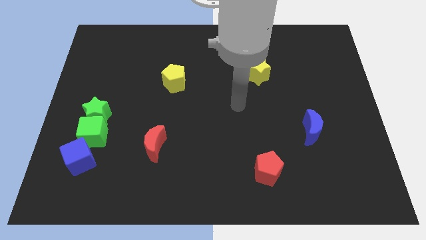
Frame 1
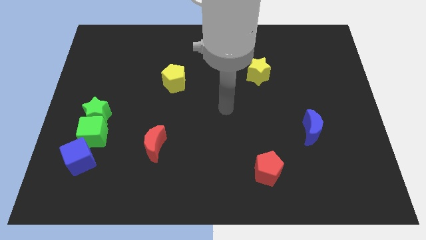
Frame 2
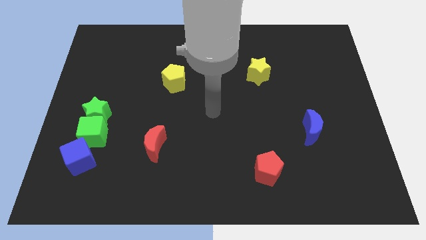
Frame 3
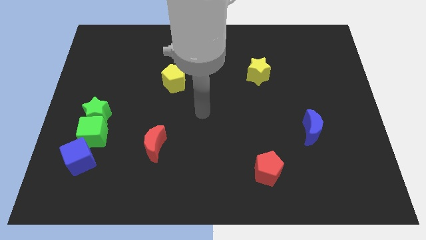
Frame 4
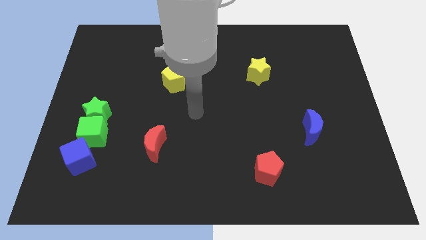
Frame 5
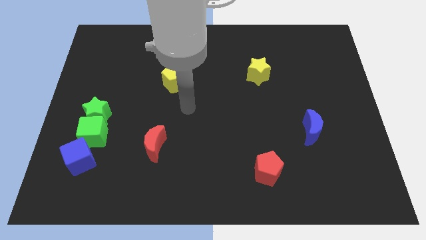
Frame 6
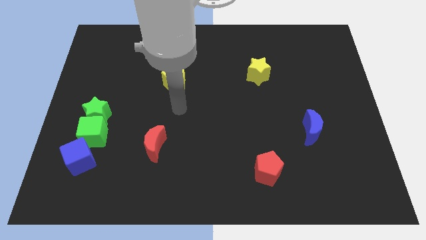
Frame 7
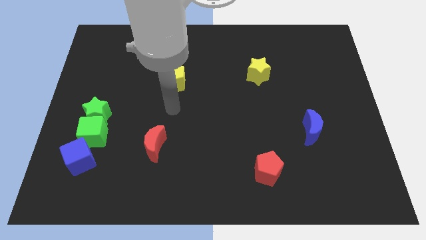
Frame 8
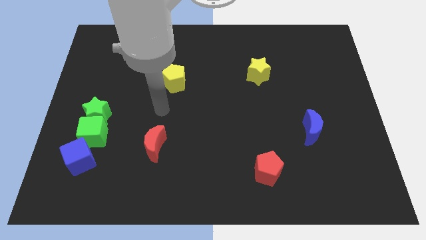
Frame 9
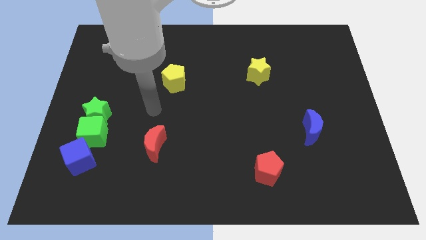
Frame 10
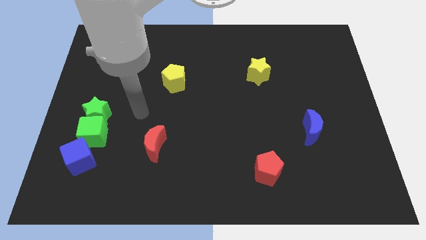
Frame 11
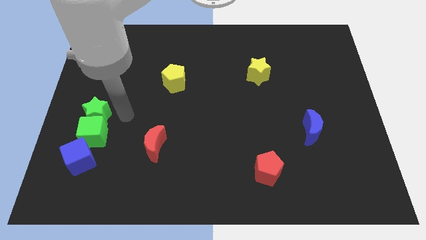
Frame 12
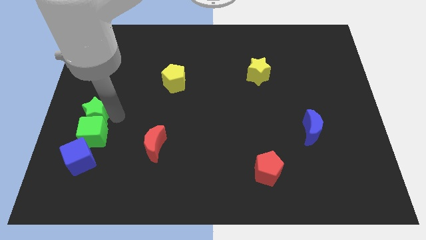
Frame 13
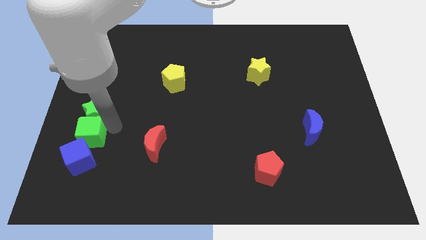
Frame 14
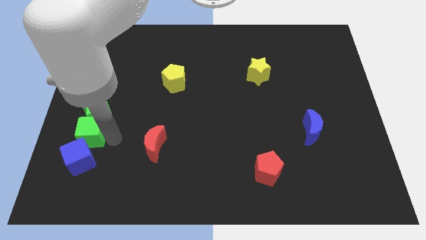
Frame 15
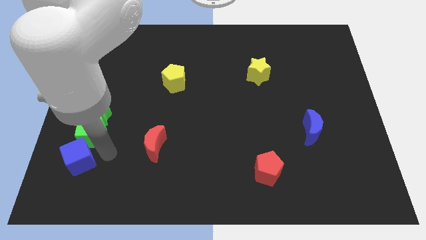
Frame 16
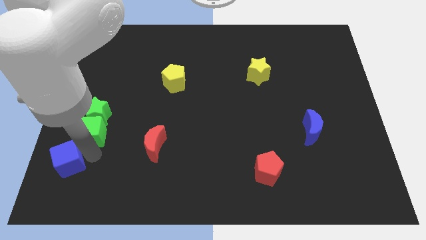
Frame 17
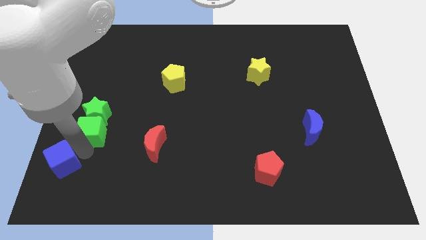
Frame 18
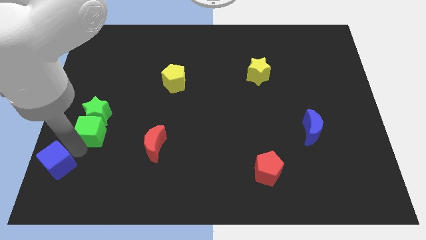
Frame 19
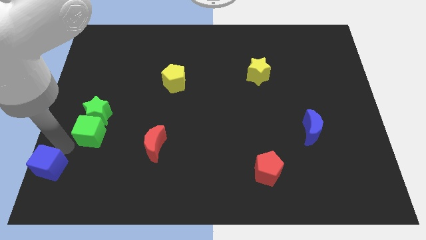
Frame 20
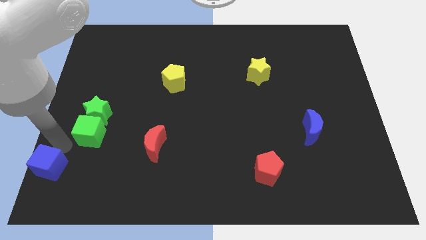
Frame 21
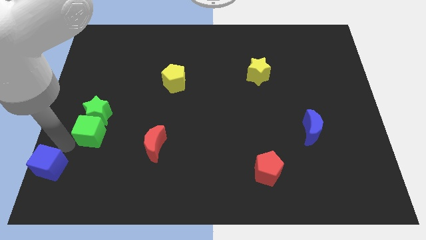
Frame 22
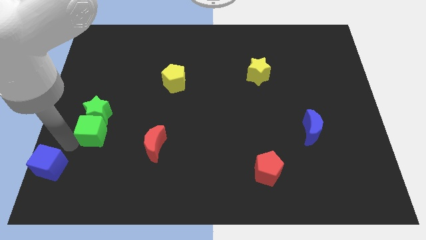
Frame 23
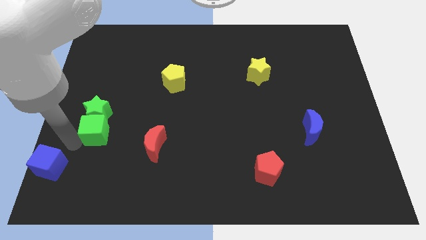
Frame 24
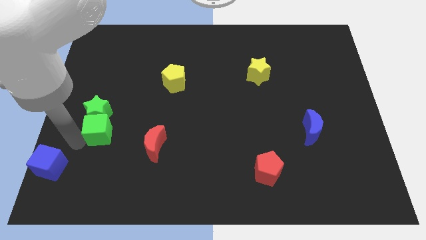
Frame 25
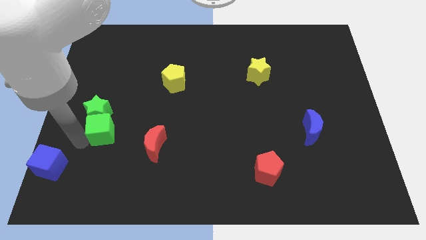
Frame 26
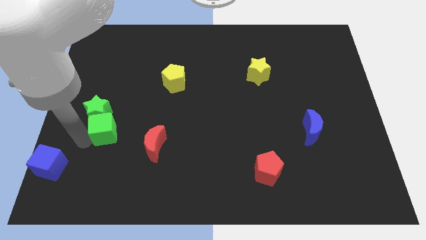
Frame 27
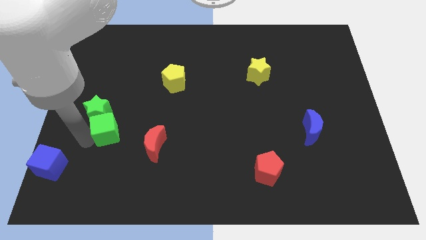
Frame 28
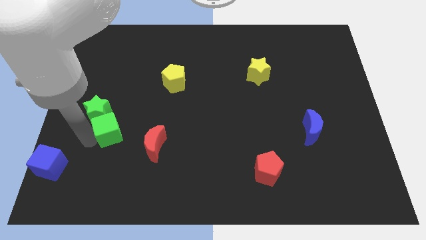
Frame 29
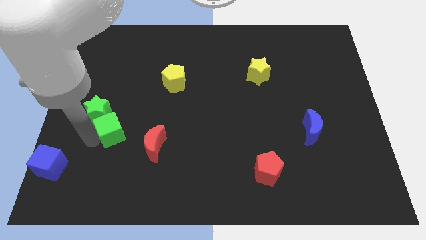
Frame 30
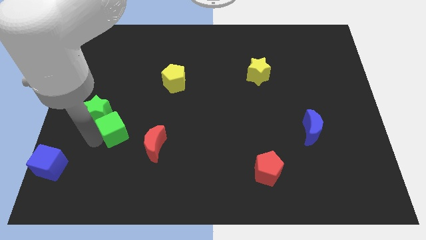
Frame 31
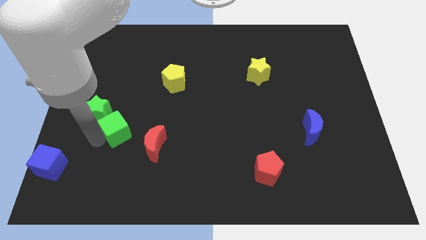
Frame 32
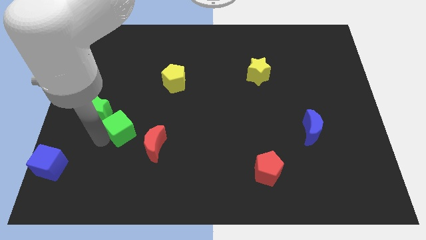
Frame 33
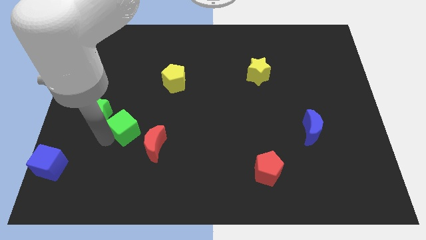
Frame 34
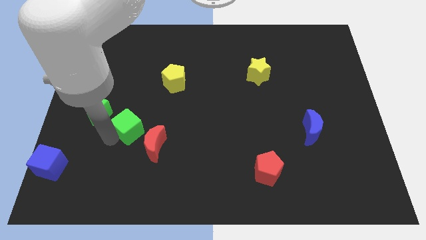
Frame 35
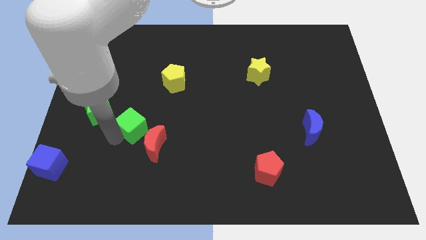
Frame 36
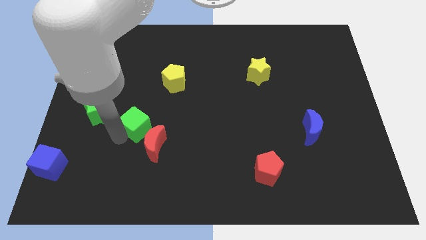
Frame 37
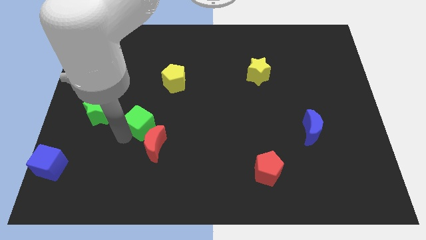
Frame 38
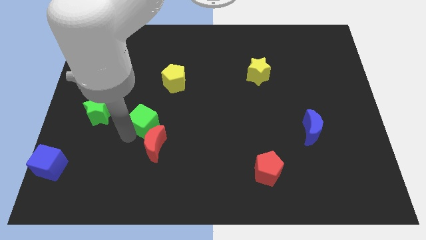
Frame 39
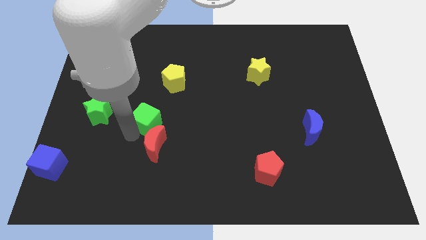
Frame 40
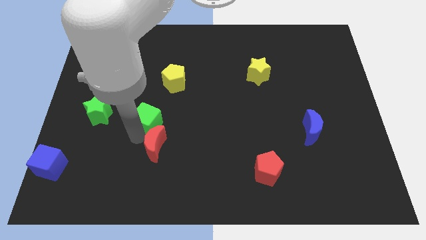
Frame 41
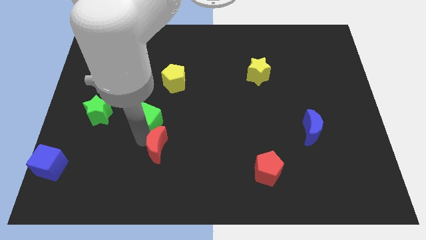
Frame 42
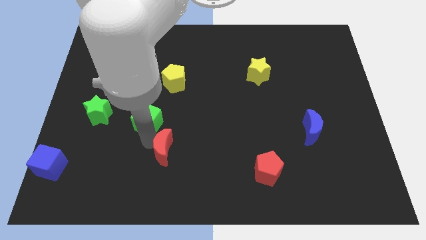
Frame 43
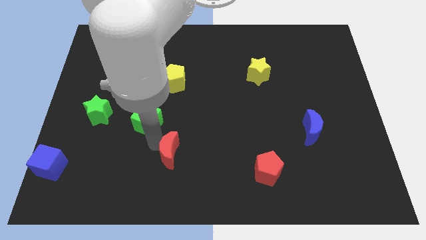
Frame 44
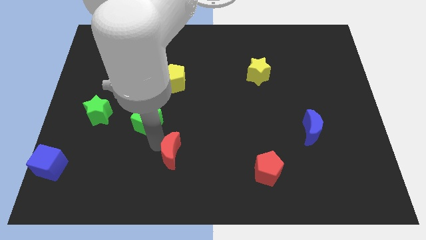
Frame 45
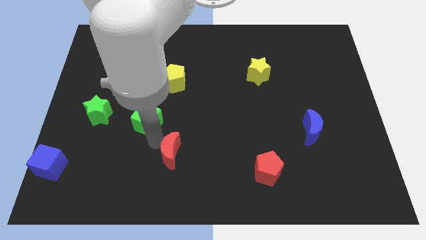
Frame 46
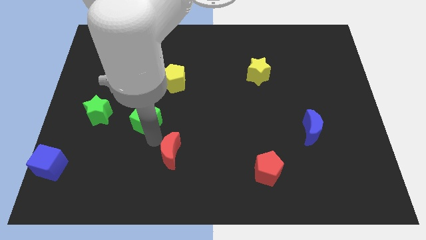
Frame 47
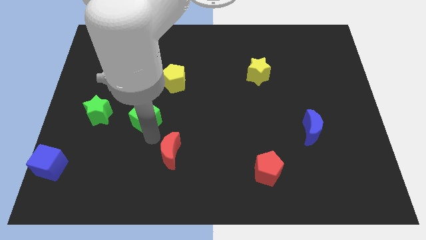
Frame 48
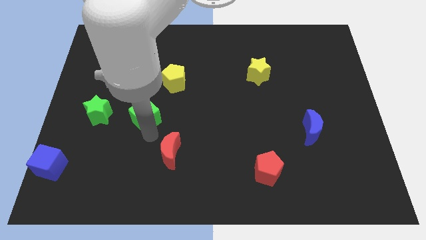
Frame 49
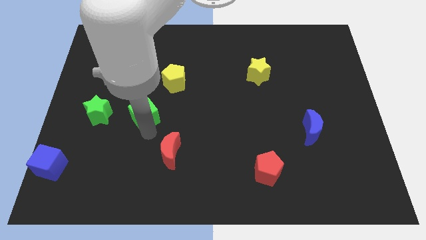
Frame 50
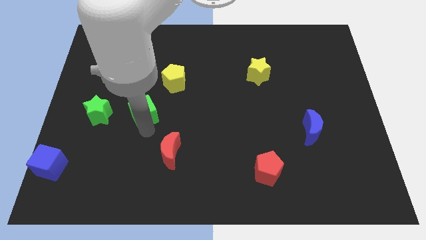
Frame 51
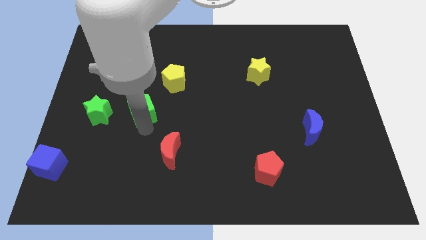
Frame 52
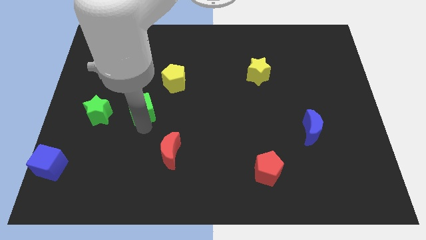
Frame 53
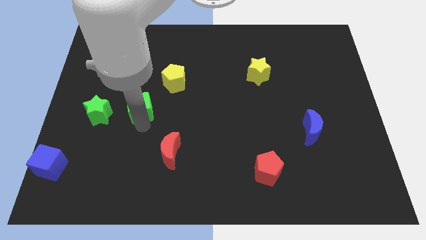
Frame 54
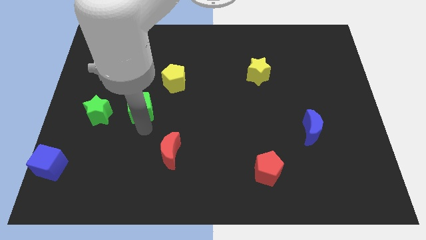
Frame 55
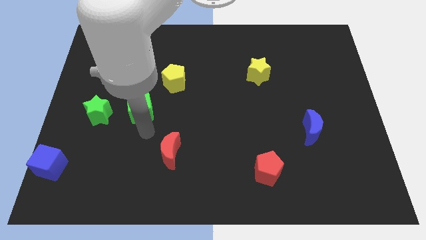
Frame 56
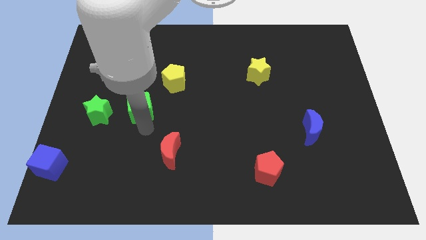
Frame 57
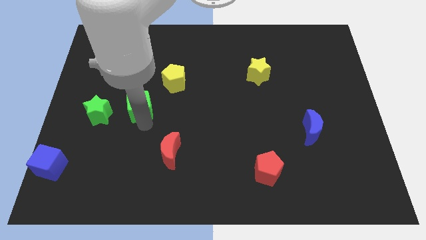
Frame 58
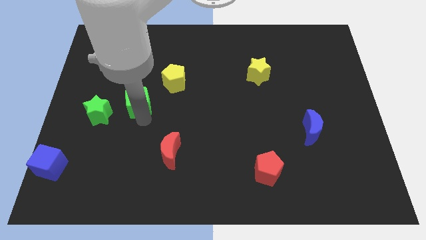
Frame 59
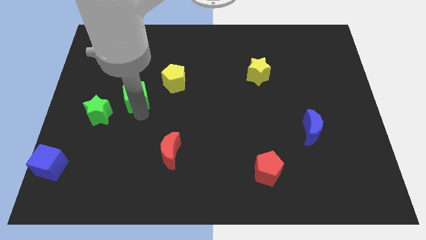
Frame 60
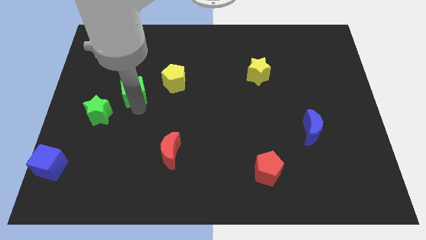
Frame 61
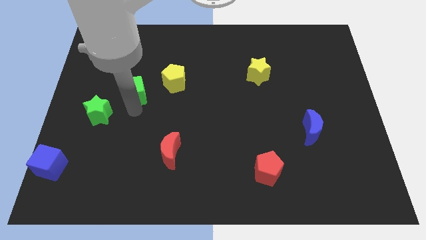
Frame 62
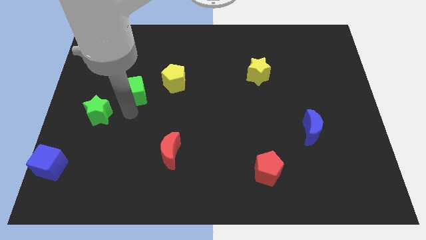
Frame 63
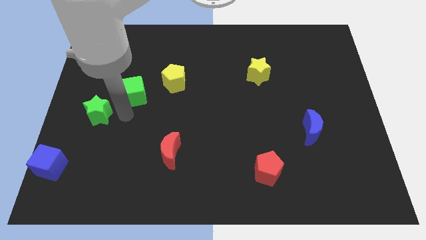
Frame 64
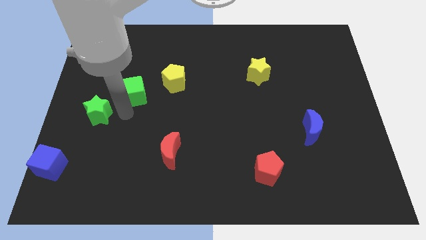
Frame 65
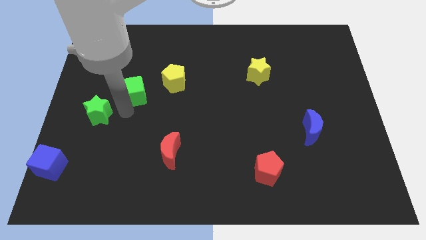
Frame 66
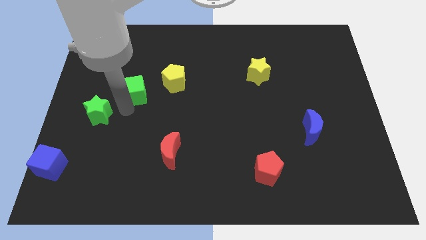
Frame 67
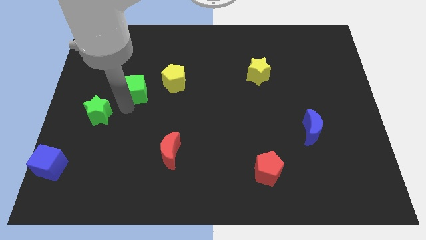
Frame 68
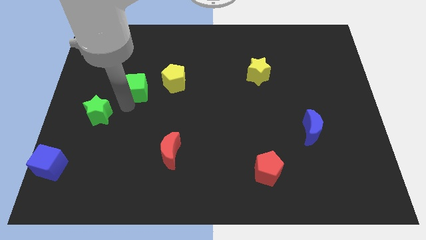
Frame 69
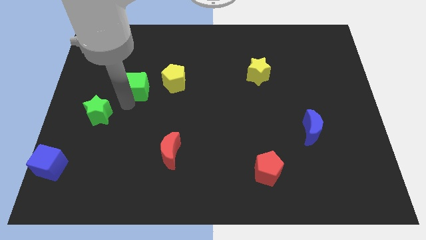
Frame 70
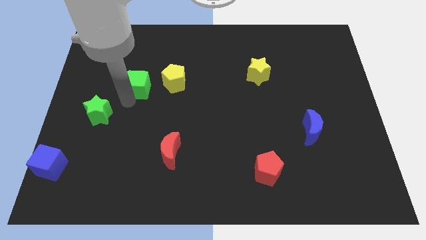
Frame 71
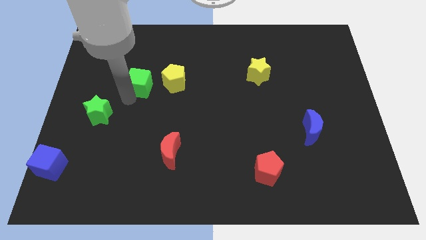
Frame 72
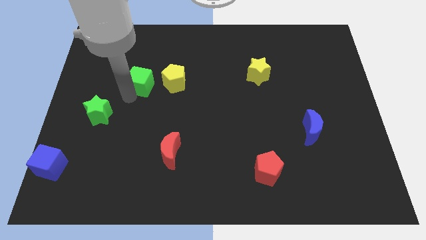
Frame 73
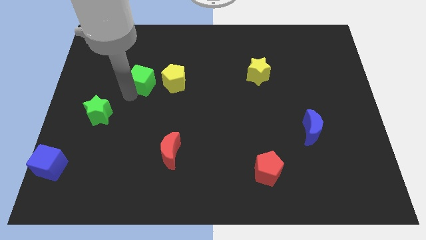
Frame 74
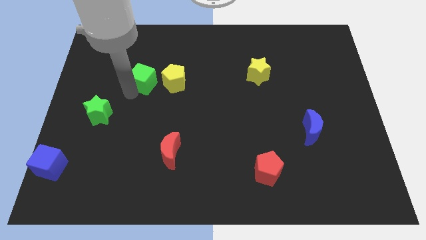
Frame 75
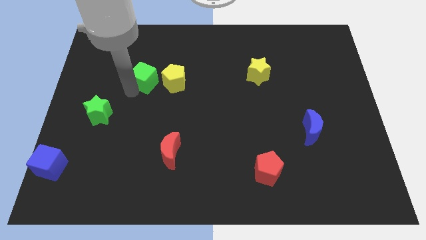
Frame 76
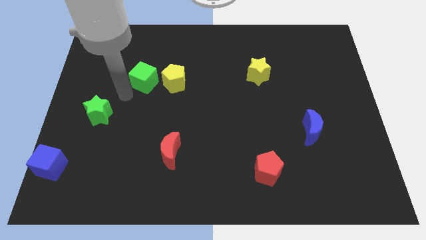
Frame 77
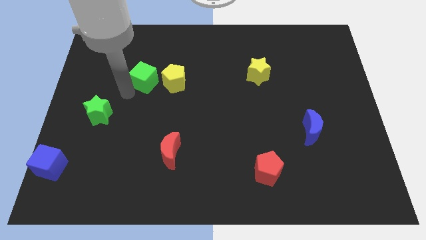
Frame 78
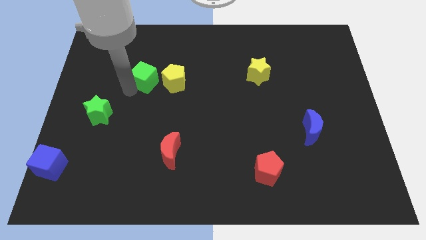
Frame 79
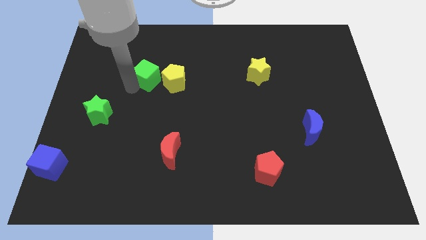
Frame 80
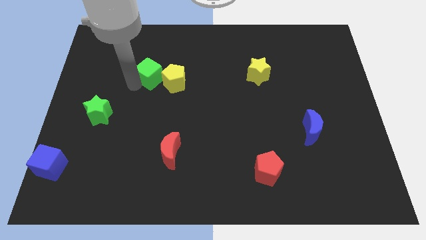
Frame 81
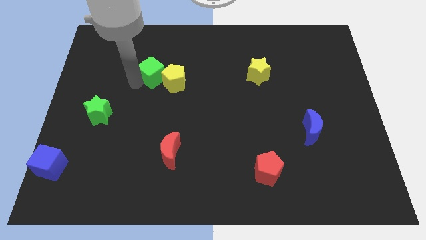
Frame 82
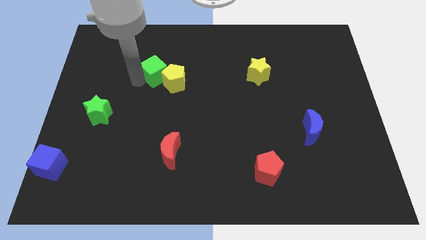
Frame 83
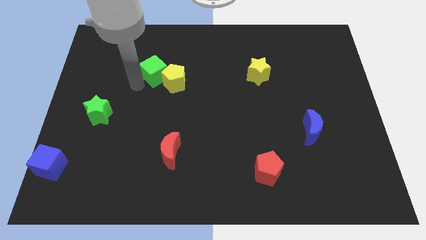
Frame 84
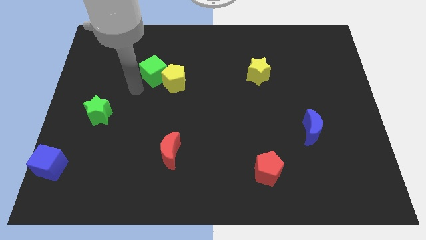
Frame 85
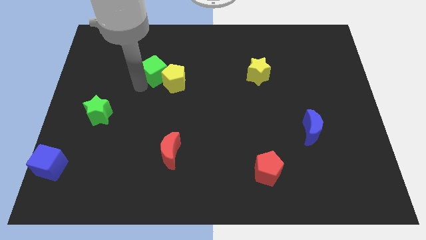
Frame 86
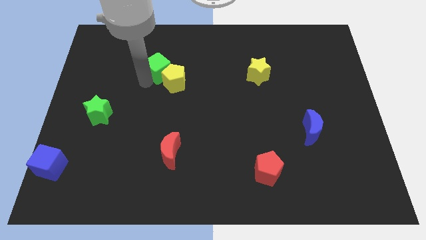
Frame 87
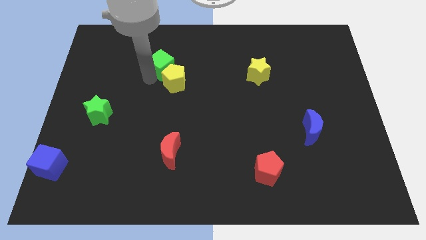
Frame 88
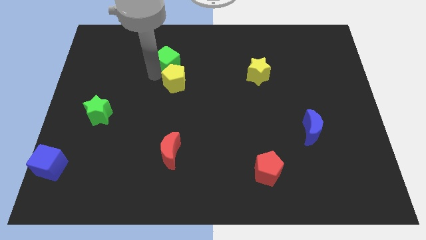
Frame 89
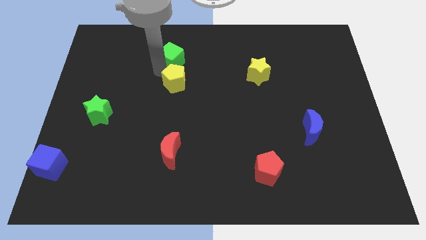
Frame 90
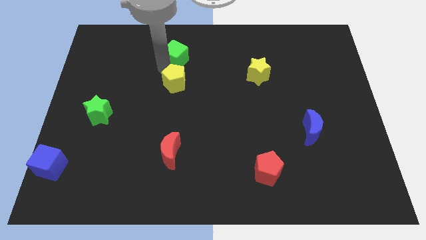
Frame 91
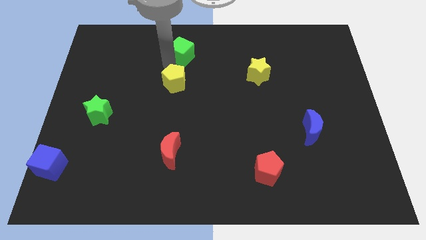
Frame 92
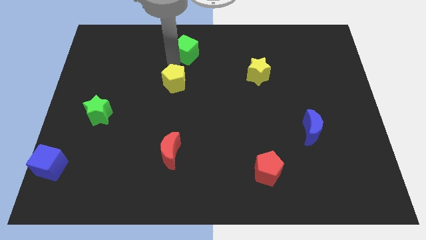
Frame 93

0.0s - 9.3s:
push the green cube to the top side
